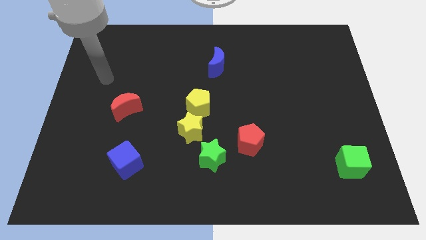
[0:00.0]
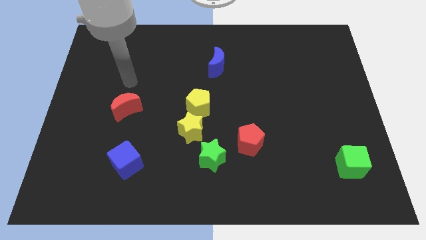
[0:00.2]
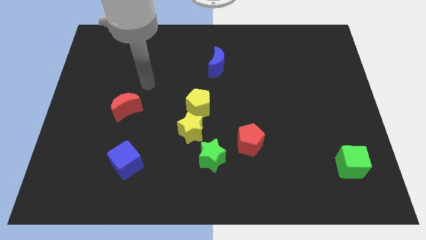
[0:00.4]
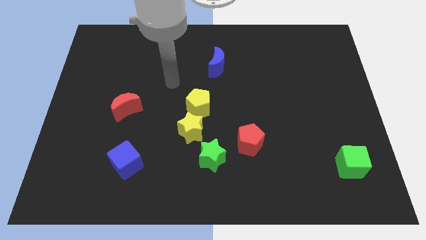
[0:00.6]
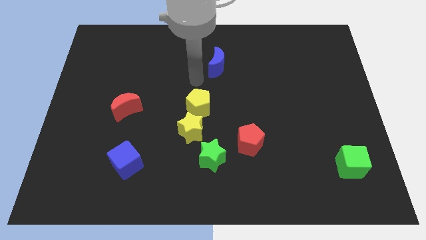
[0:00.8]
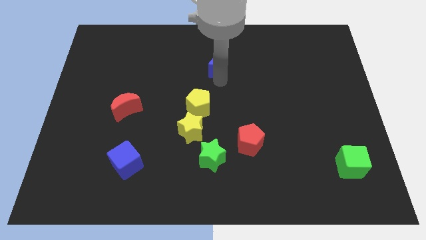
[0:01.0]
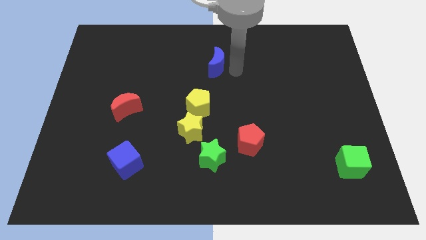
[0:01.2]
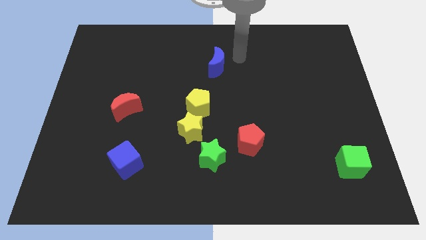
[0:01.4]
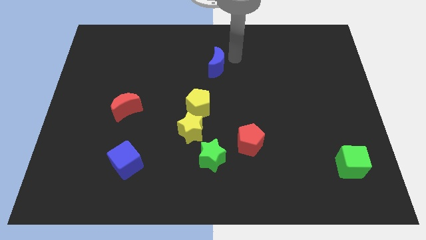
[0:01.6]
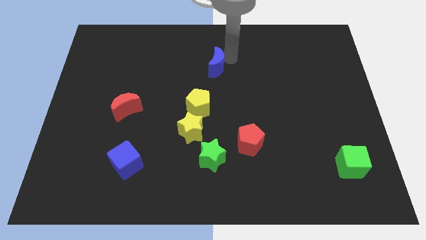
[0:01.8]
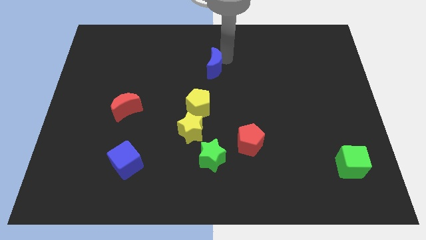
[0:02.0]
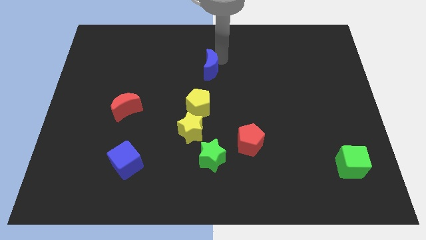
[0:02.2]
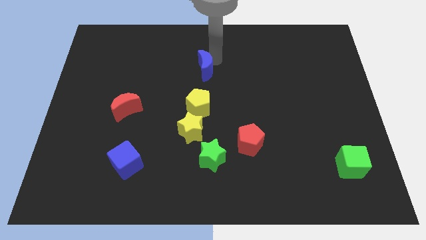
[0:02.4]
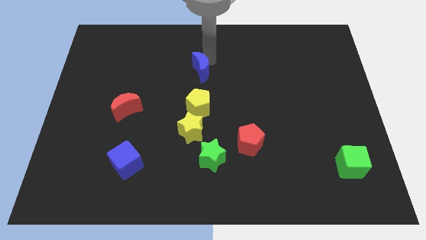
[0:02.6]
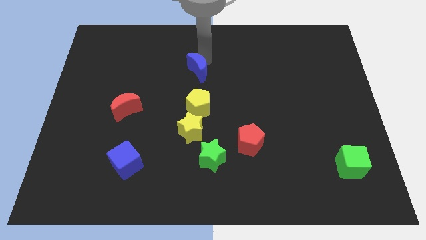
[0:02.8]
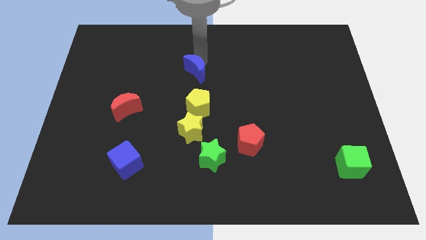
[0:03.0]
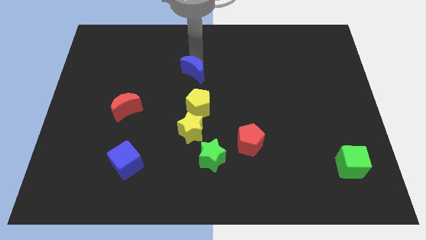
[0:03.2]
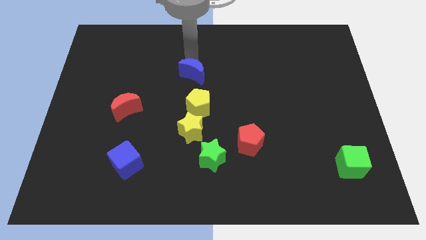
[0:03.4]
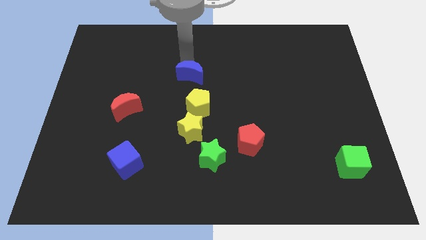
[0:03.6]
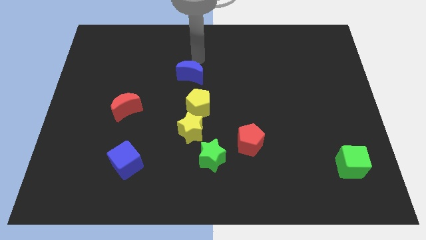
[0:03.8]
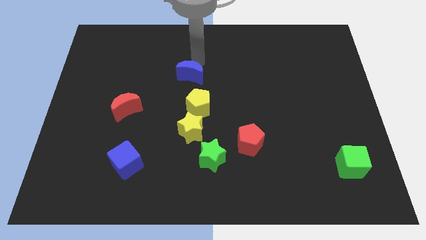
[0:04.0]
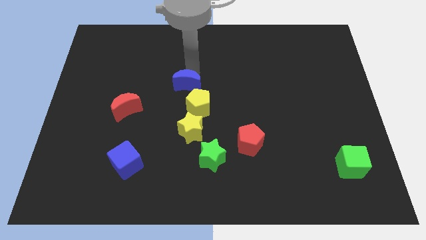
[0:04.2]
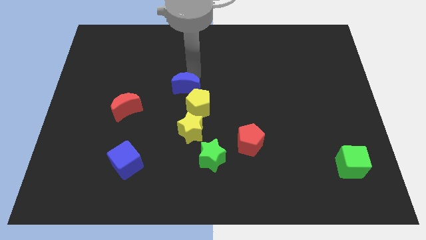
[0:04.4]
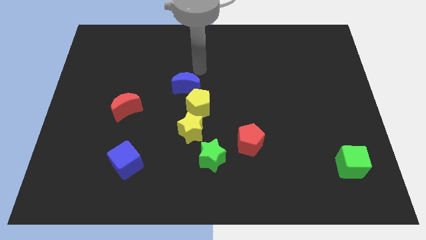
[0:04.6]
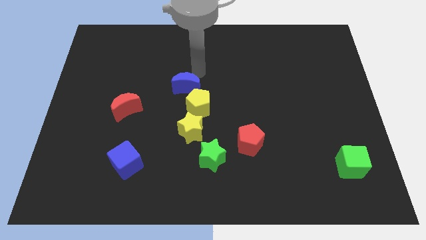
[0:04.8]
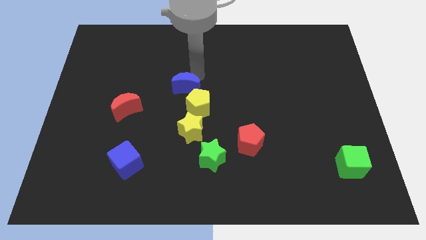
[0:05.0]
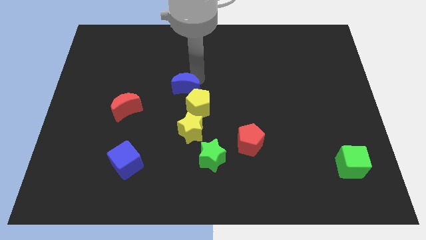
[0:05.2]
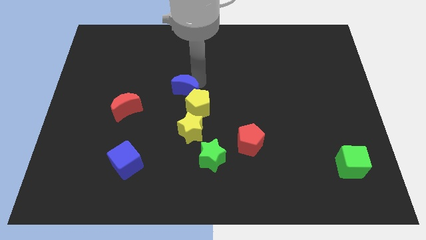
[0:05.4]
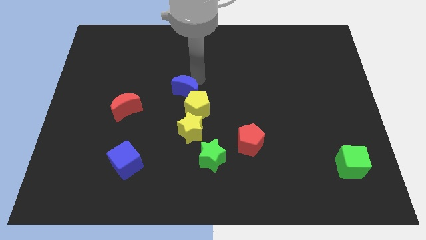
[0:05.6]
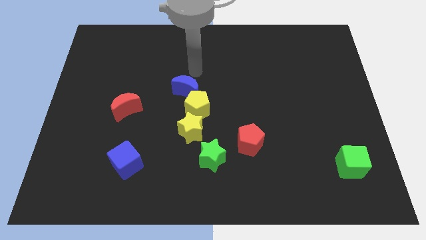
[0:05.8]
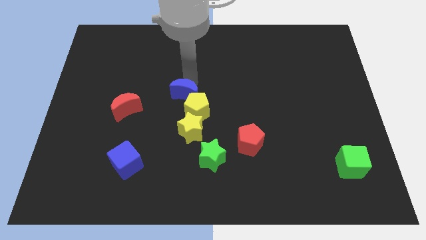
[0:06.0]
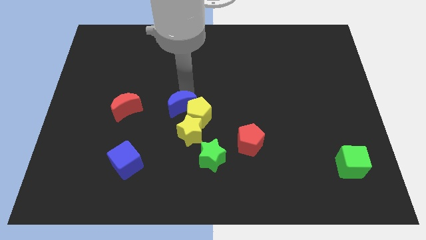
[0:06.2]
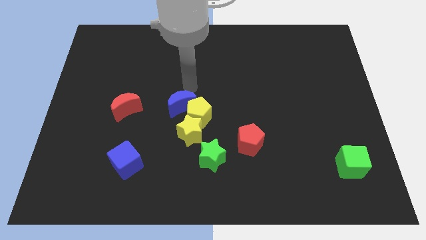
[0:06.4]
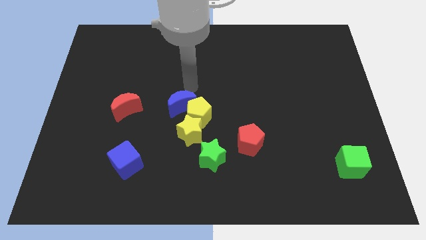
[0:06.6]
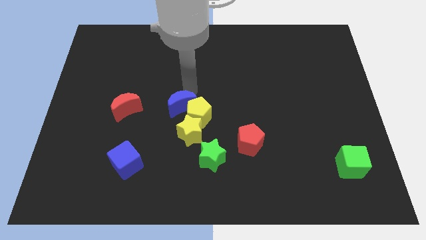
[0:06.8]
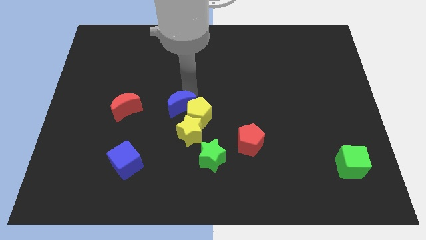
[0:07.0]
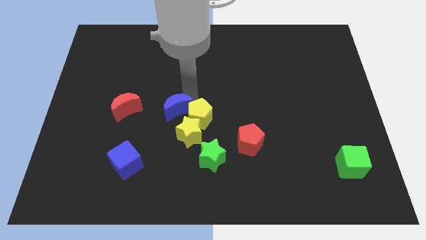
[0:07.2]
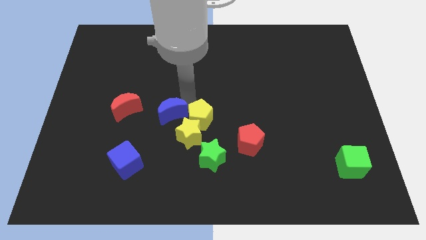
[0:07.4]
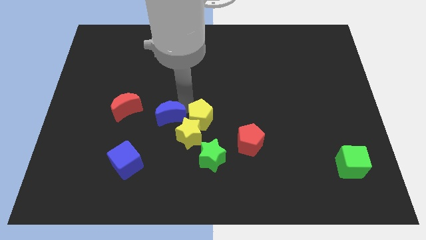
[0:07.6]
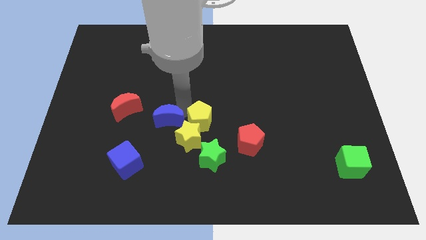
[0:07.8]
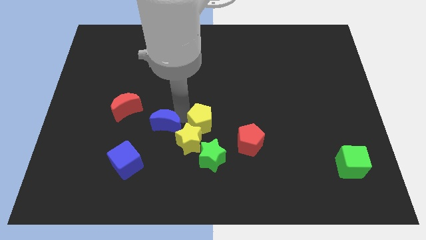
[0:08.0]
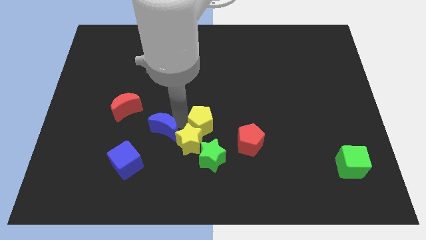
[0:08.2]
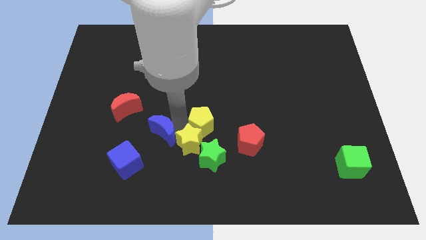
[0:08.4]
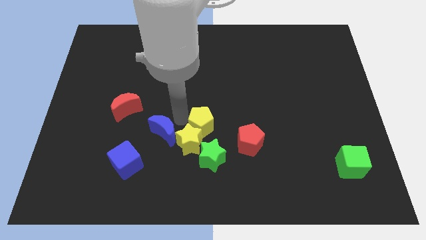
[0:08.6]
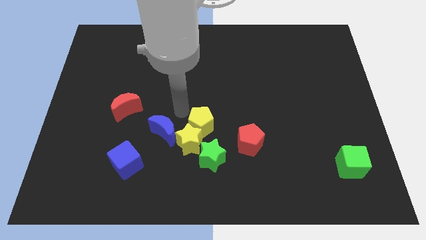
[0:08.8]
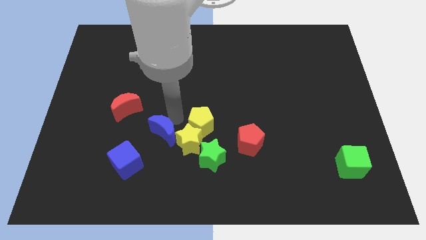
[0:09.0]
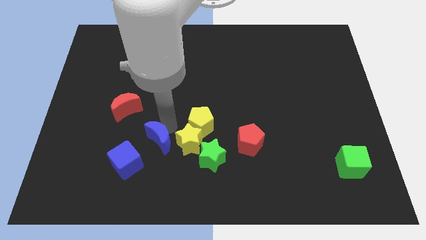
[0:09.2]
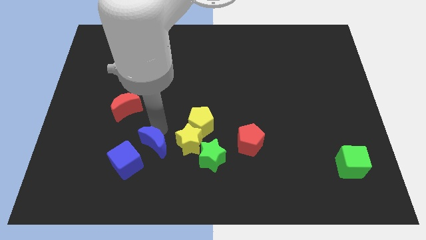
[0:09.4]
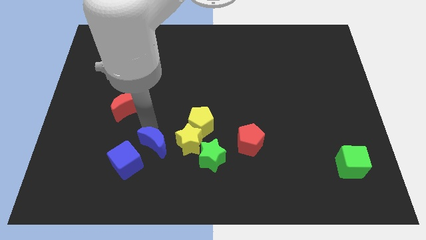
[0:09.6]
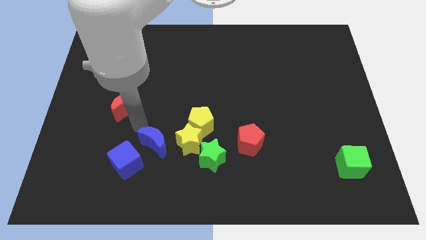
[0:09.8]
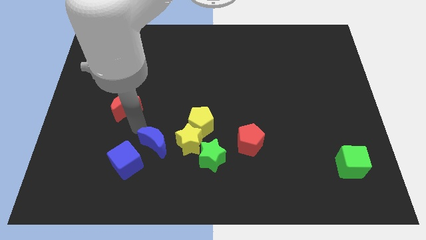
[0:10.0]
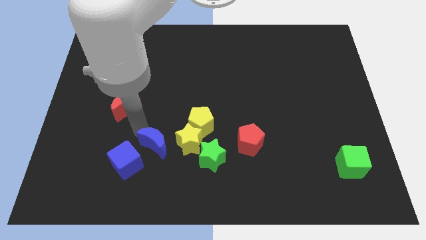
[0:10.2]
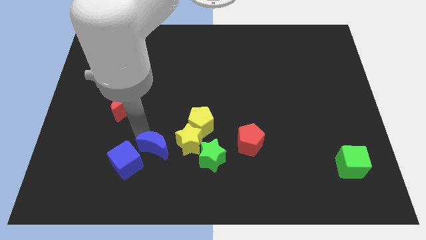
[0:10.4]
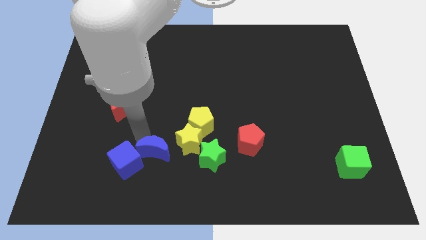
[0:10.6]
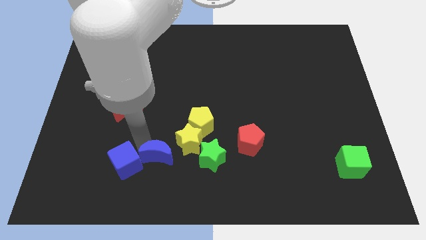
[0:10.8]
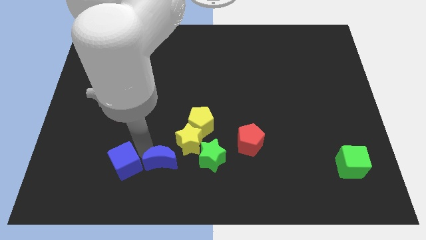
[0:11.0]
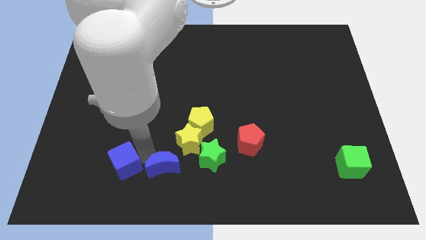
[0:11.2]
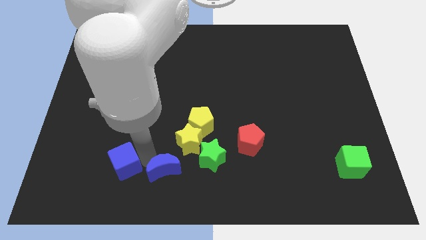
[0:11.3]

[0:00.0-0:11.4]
slide the blue moon to the bottom left side of the green star

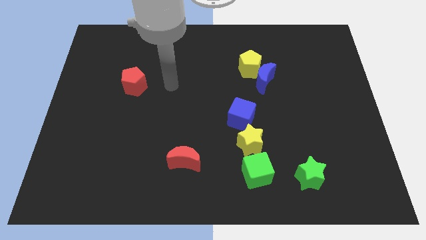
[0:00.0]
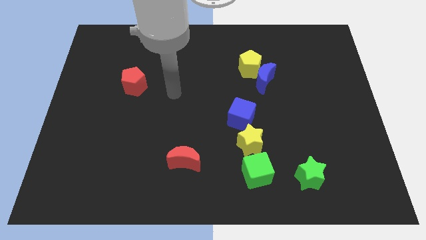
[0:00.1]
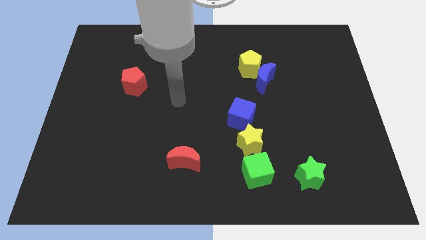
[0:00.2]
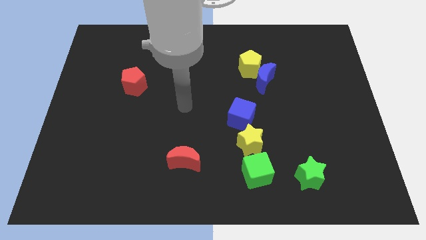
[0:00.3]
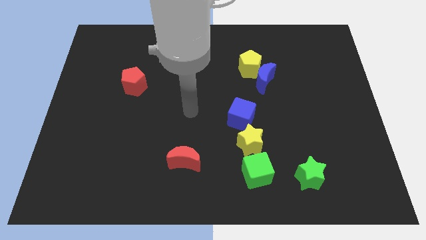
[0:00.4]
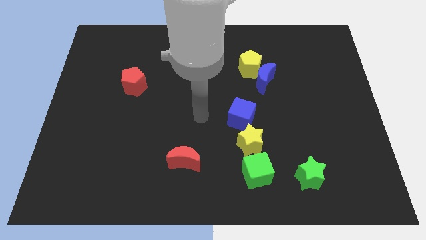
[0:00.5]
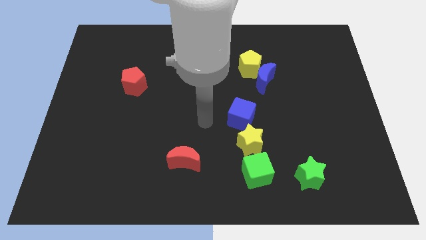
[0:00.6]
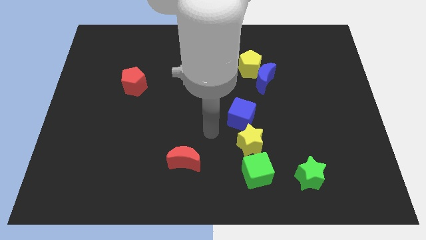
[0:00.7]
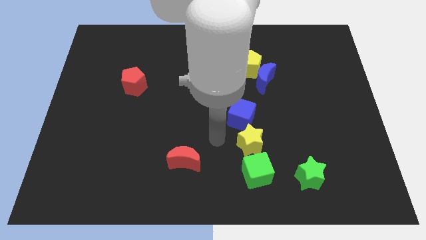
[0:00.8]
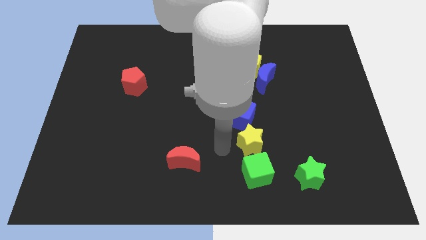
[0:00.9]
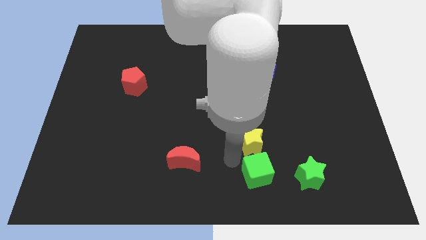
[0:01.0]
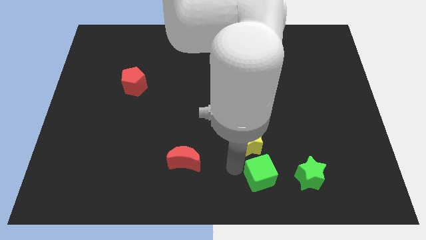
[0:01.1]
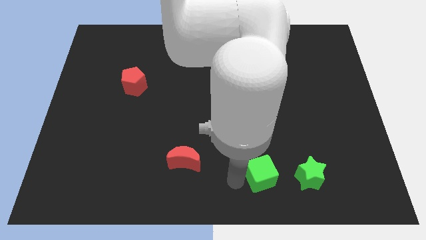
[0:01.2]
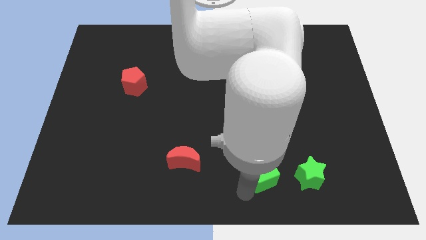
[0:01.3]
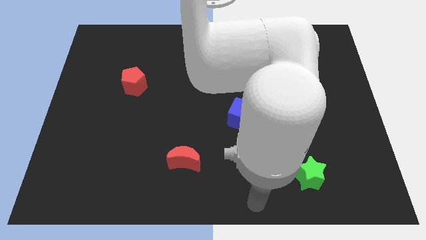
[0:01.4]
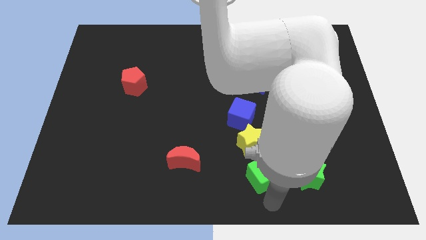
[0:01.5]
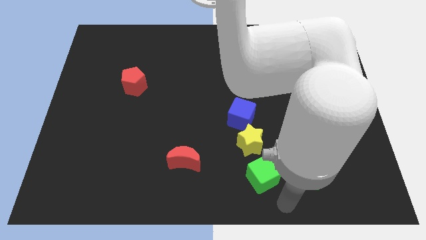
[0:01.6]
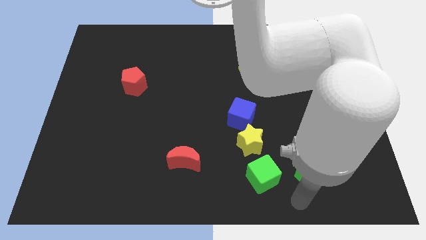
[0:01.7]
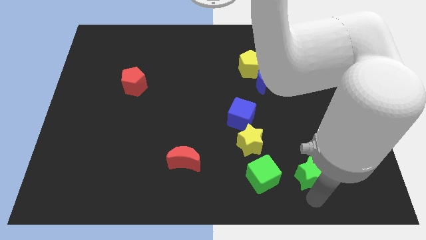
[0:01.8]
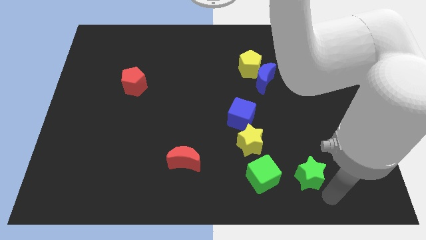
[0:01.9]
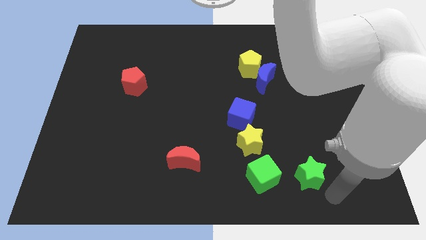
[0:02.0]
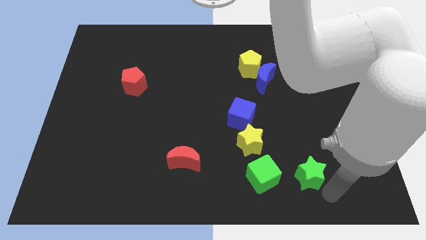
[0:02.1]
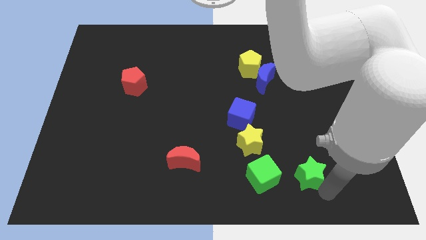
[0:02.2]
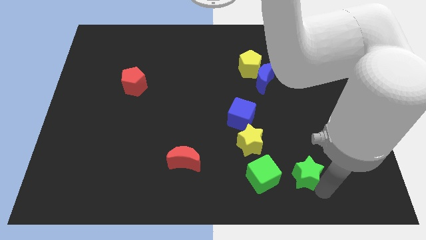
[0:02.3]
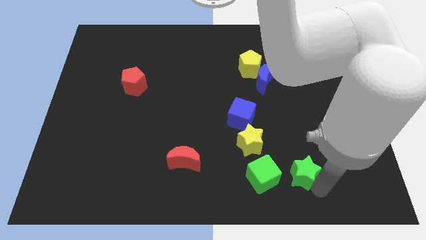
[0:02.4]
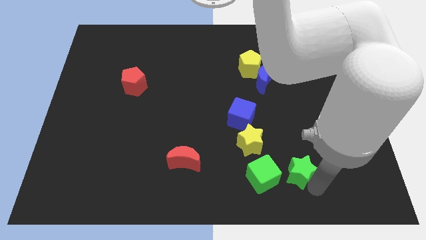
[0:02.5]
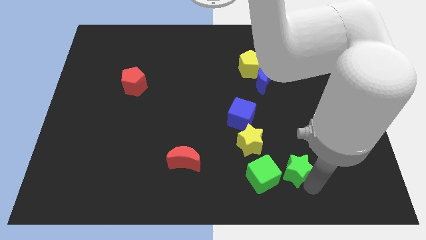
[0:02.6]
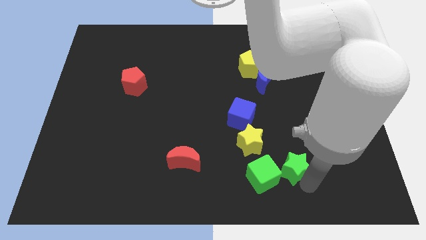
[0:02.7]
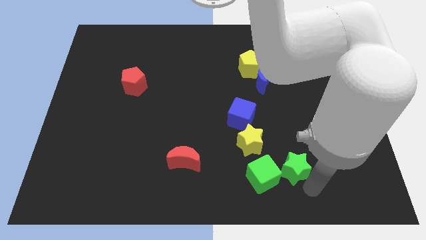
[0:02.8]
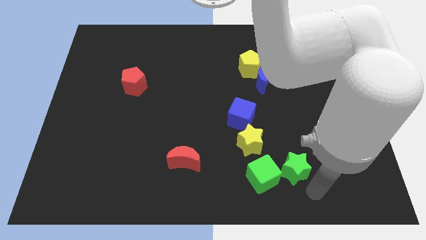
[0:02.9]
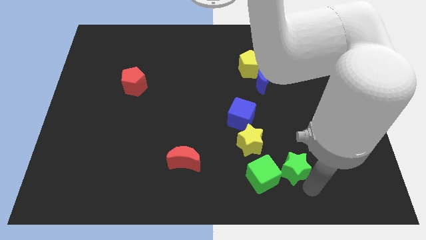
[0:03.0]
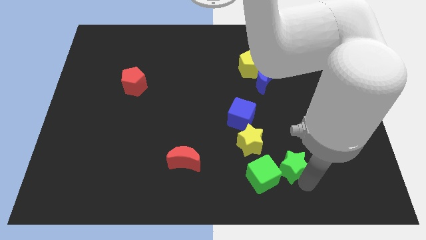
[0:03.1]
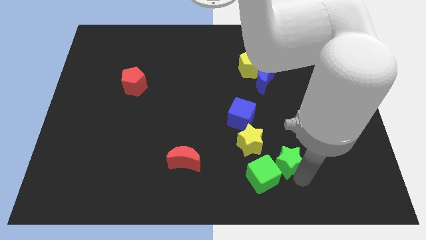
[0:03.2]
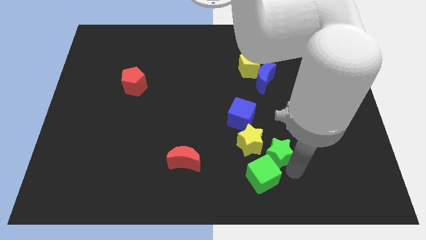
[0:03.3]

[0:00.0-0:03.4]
move the green star to the bottom right side of the blue cube
